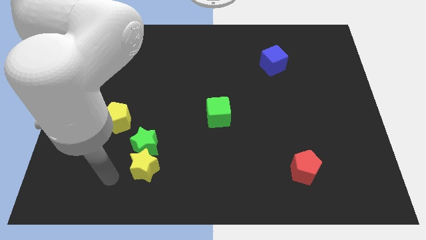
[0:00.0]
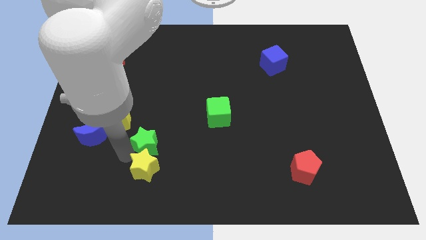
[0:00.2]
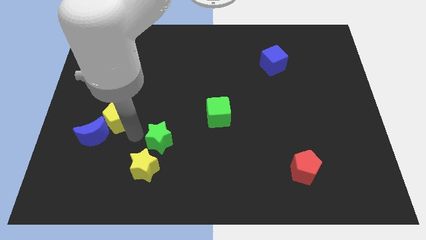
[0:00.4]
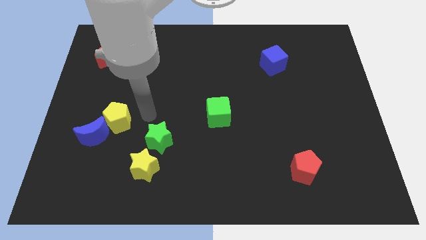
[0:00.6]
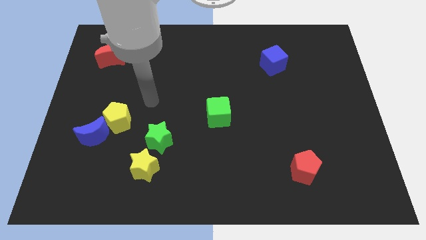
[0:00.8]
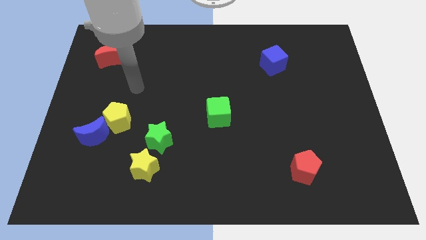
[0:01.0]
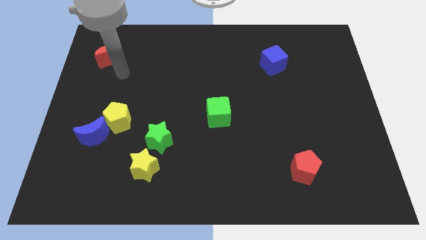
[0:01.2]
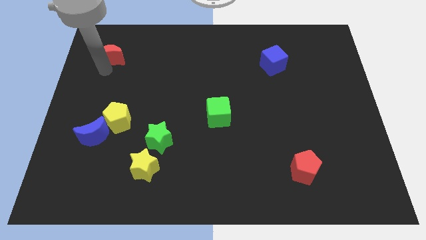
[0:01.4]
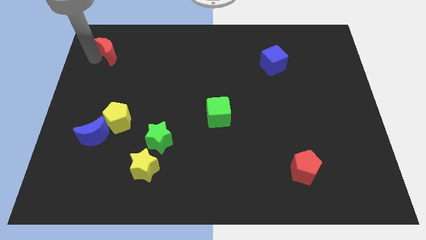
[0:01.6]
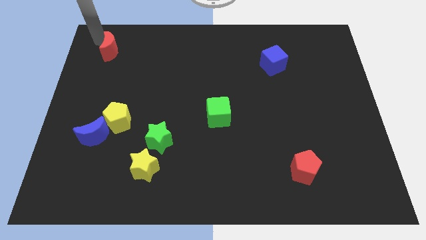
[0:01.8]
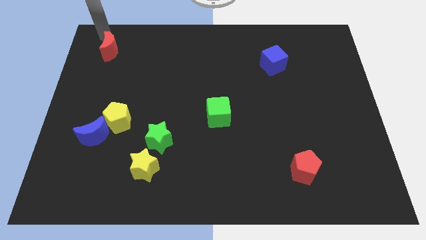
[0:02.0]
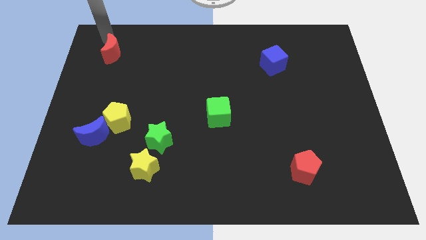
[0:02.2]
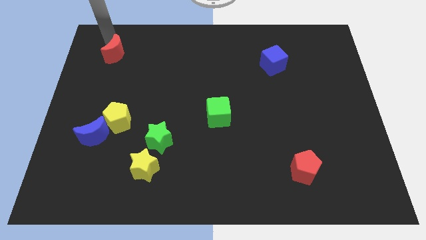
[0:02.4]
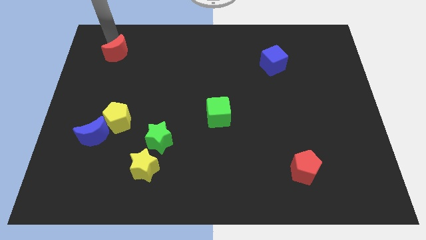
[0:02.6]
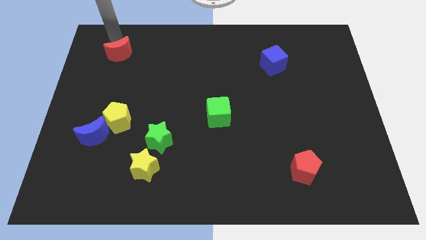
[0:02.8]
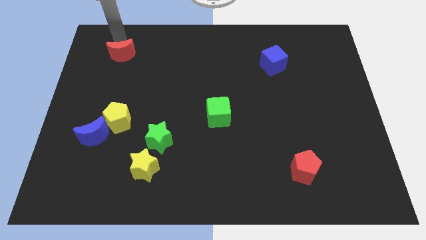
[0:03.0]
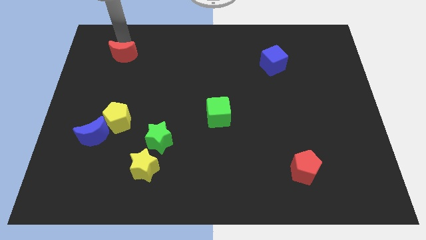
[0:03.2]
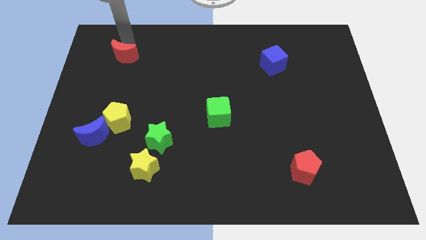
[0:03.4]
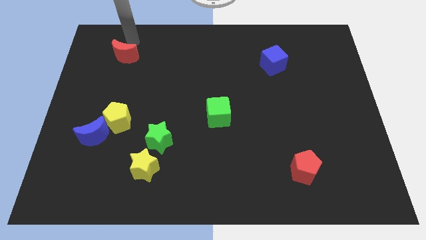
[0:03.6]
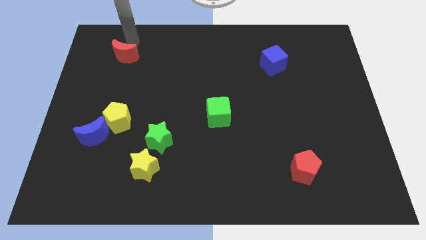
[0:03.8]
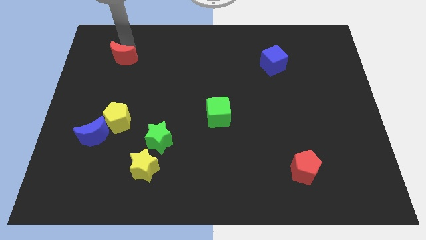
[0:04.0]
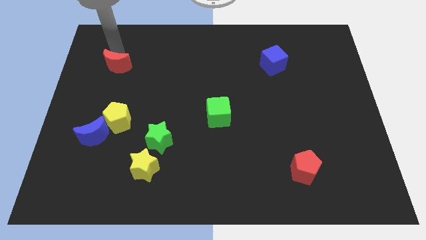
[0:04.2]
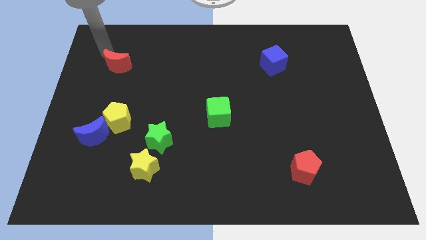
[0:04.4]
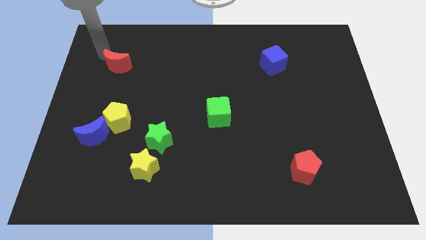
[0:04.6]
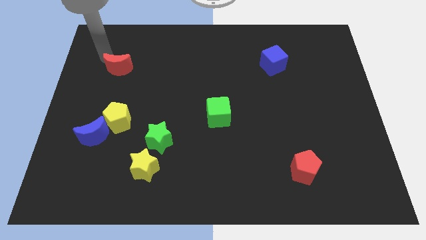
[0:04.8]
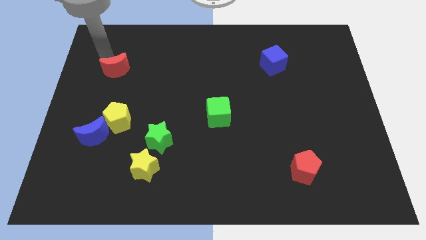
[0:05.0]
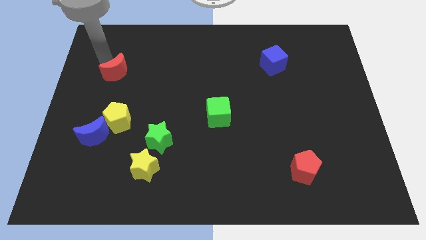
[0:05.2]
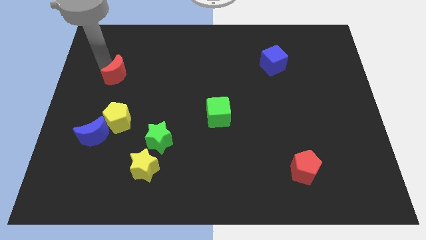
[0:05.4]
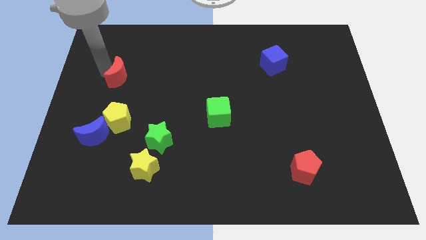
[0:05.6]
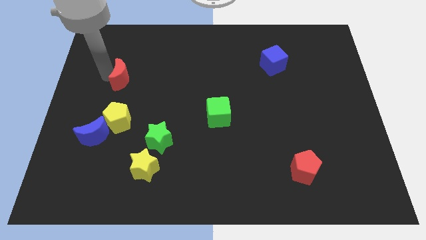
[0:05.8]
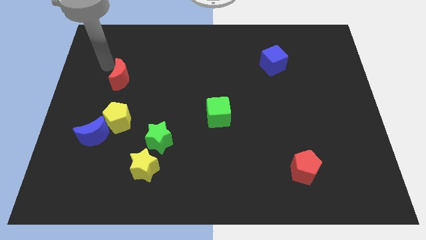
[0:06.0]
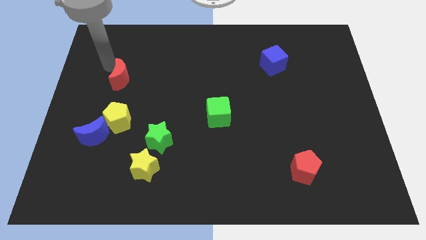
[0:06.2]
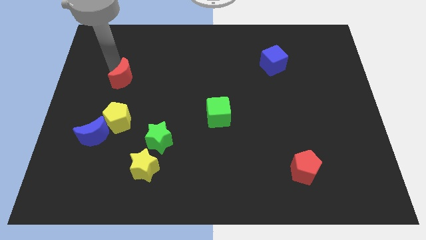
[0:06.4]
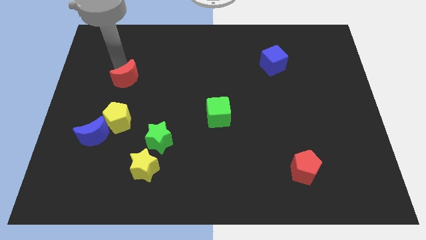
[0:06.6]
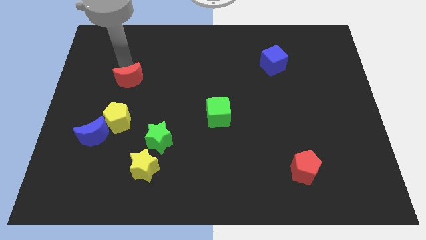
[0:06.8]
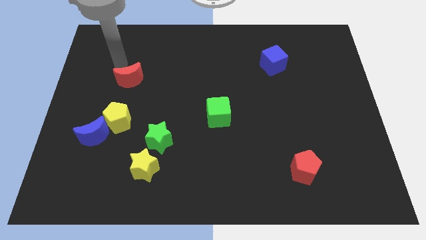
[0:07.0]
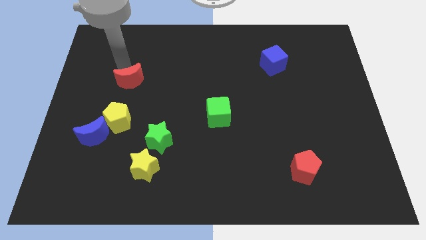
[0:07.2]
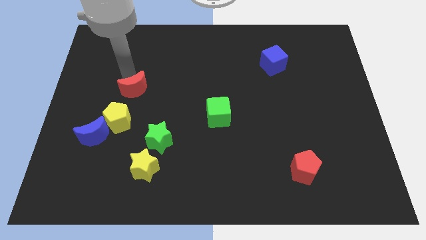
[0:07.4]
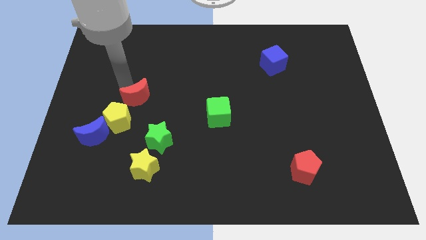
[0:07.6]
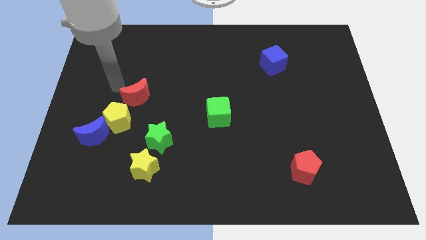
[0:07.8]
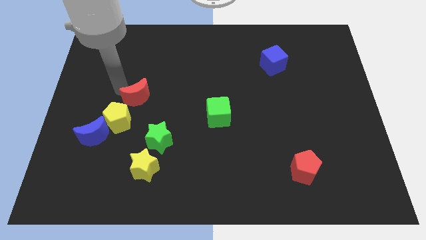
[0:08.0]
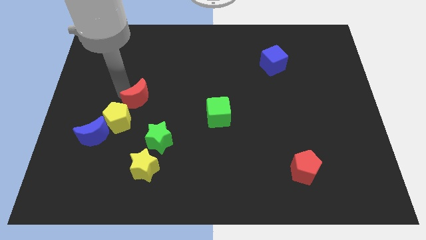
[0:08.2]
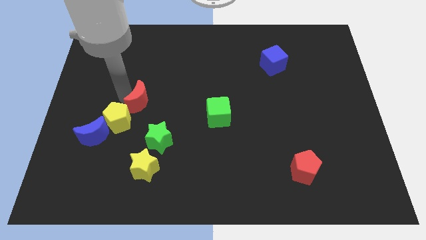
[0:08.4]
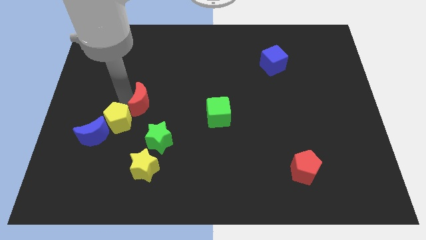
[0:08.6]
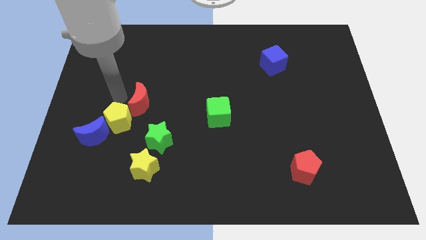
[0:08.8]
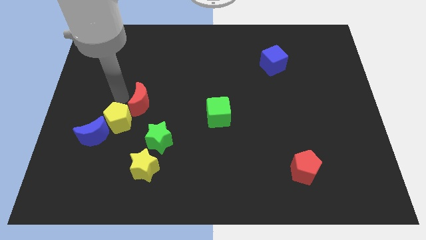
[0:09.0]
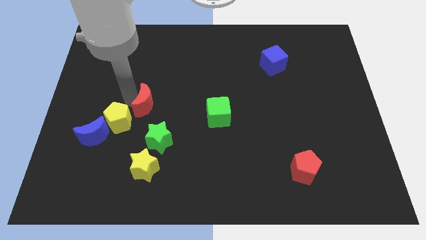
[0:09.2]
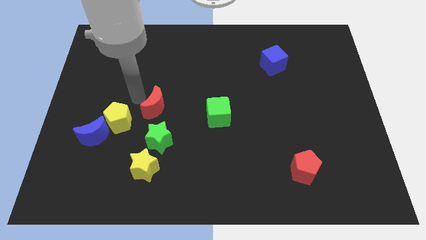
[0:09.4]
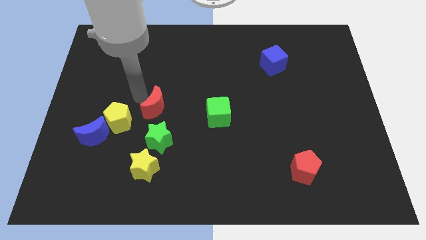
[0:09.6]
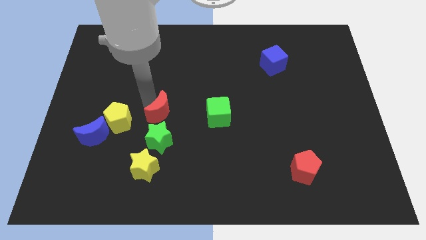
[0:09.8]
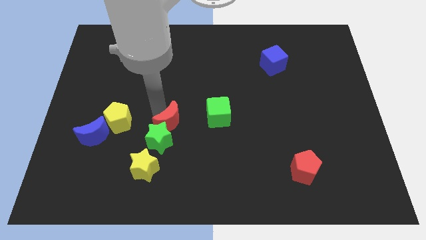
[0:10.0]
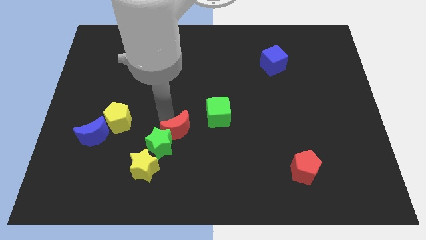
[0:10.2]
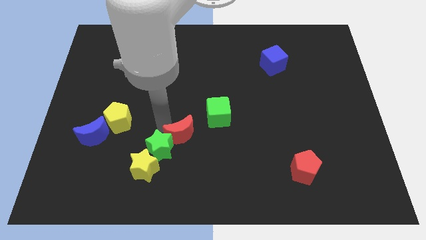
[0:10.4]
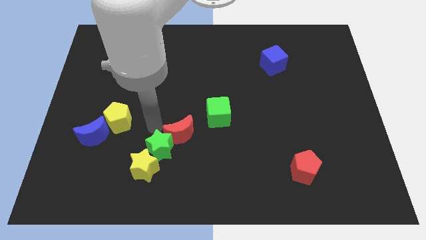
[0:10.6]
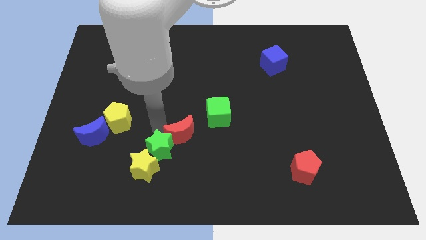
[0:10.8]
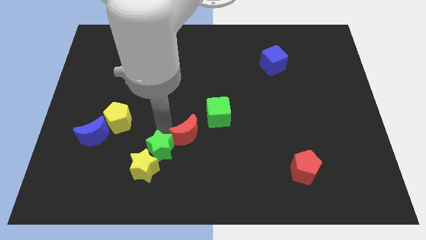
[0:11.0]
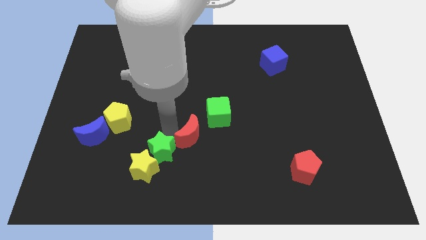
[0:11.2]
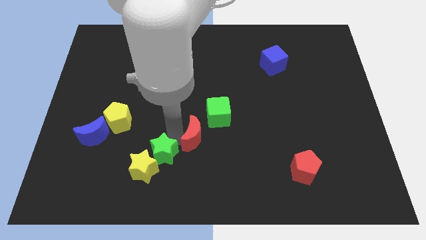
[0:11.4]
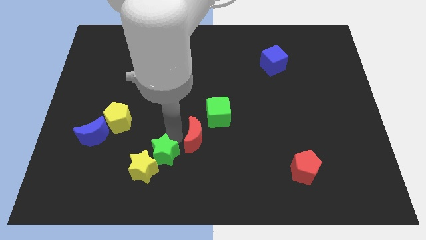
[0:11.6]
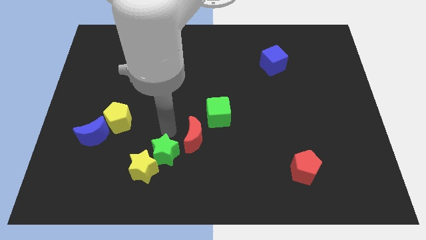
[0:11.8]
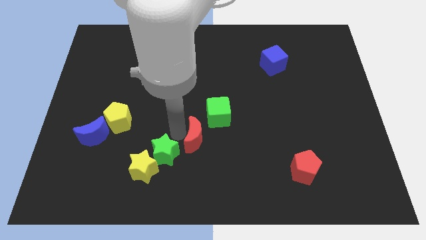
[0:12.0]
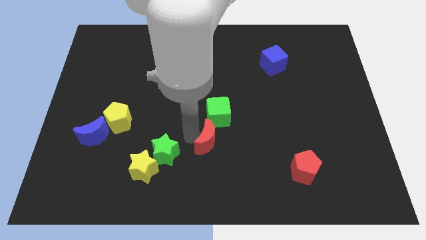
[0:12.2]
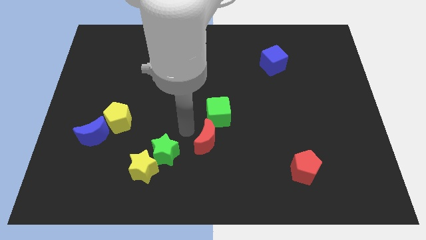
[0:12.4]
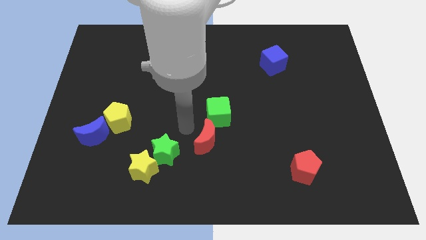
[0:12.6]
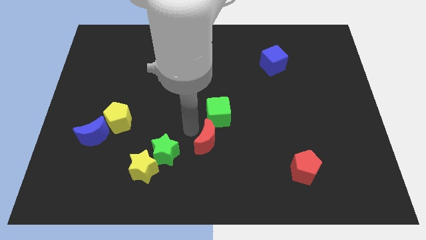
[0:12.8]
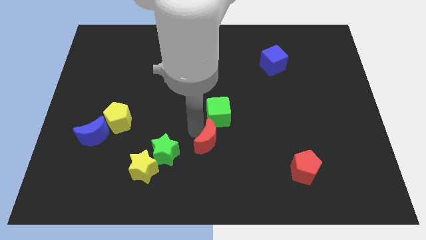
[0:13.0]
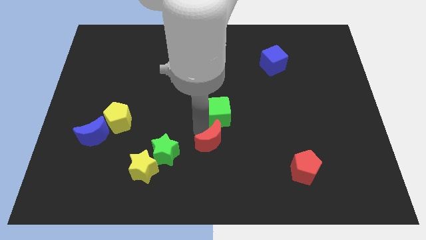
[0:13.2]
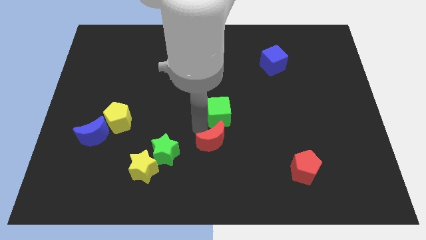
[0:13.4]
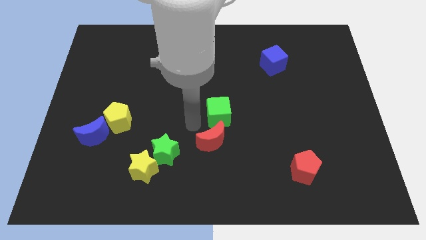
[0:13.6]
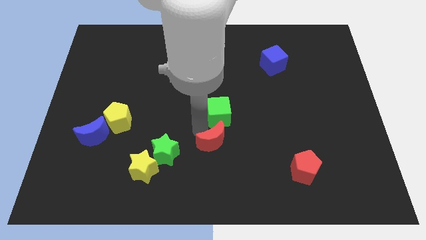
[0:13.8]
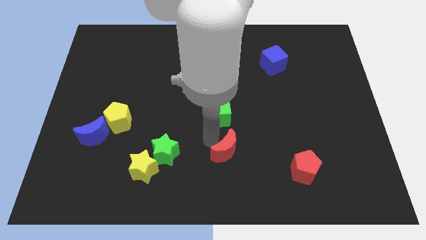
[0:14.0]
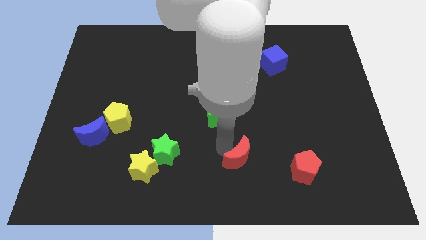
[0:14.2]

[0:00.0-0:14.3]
put the red moon just left of the red pentagon
